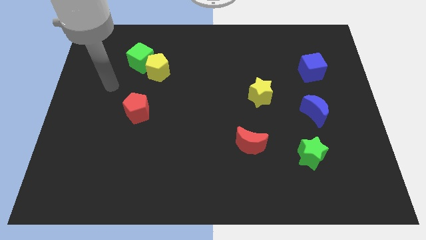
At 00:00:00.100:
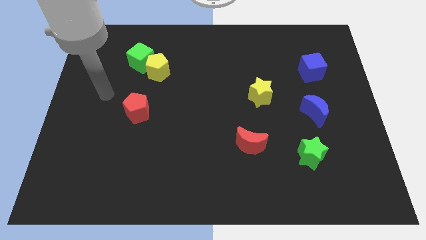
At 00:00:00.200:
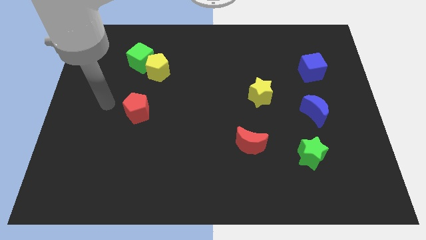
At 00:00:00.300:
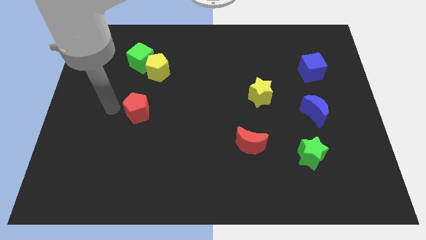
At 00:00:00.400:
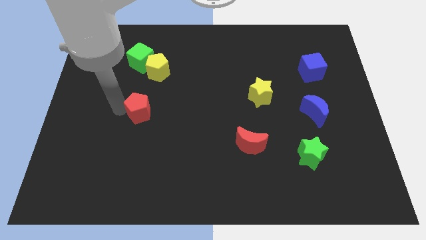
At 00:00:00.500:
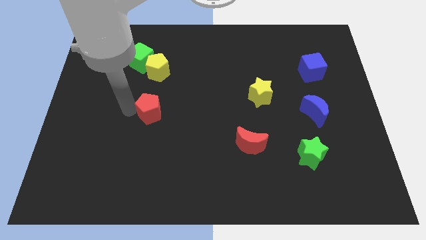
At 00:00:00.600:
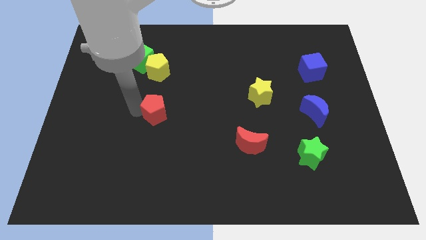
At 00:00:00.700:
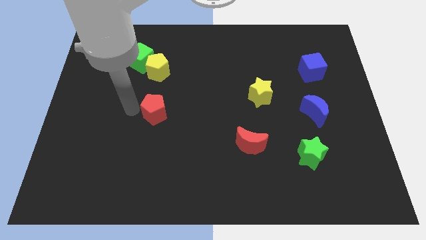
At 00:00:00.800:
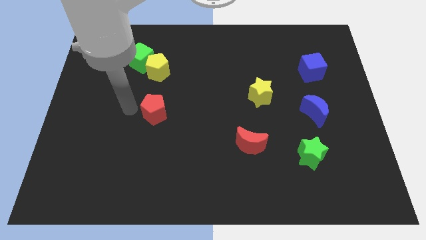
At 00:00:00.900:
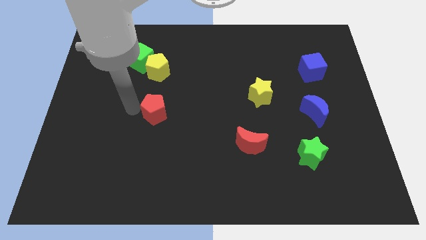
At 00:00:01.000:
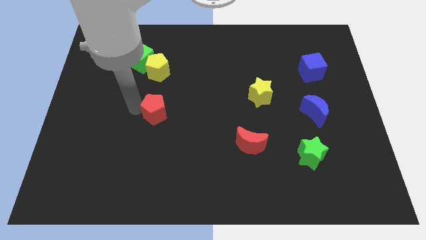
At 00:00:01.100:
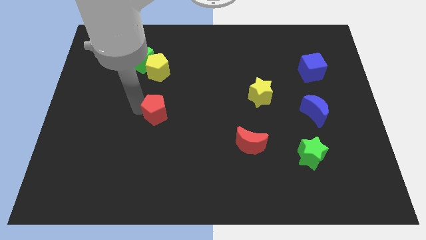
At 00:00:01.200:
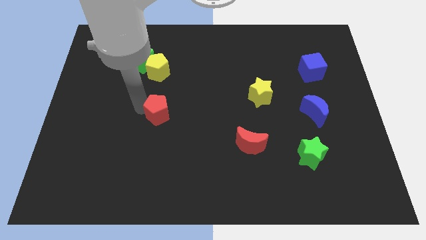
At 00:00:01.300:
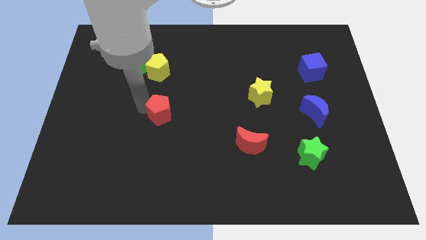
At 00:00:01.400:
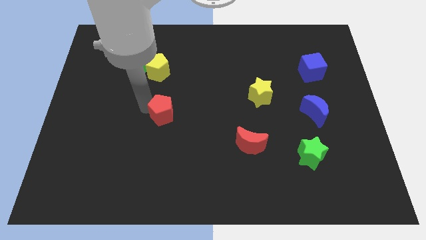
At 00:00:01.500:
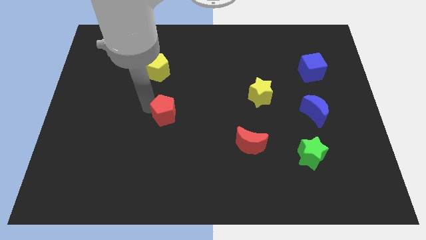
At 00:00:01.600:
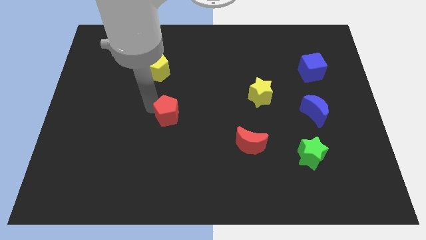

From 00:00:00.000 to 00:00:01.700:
slightly push the red pentagon to the right

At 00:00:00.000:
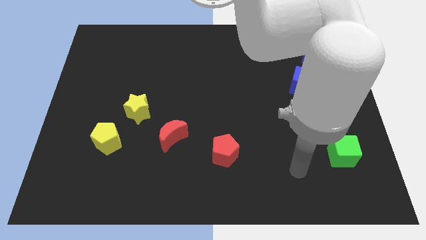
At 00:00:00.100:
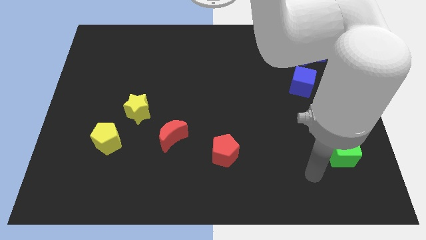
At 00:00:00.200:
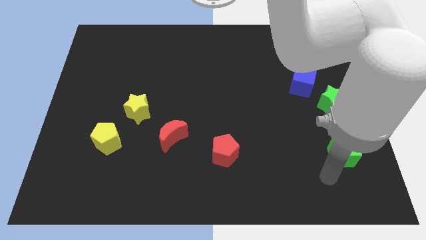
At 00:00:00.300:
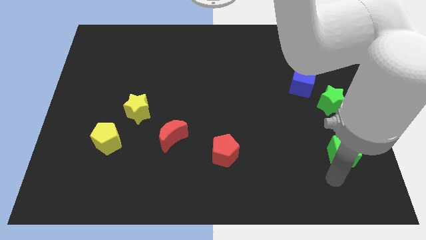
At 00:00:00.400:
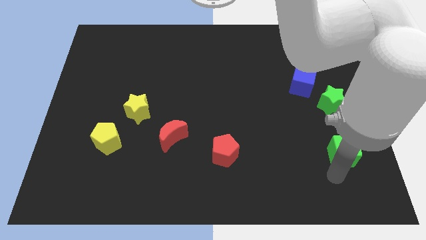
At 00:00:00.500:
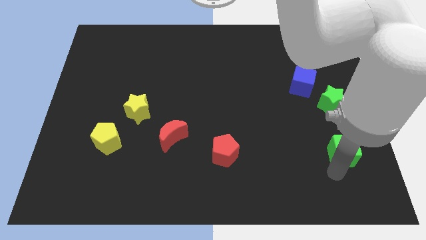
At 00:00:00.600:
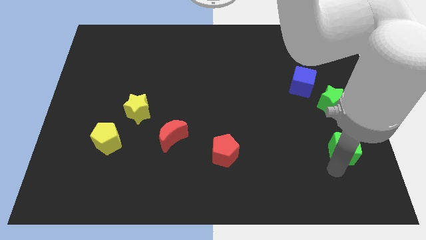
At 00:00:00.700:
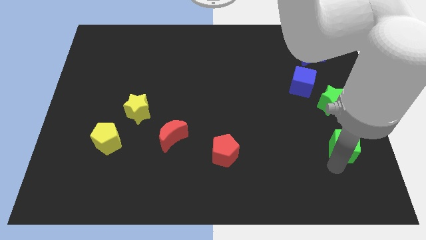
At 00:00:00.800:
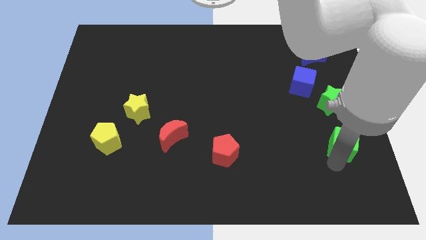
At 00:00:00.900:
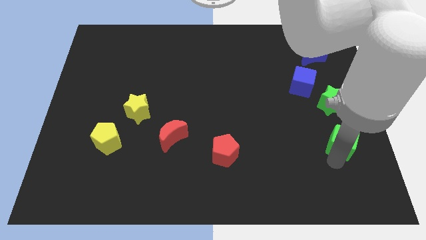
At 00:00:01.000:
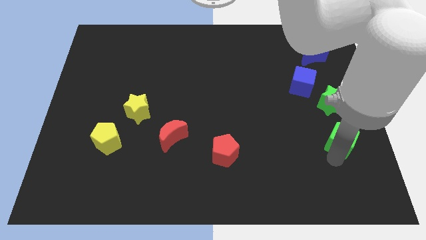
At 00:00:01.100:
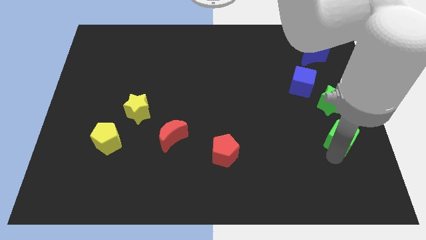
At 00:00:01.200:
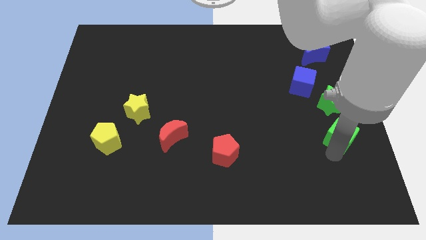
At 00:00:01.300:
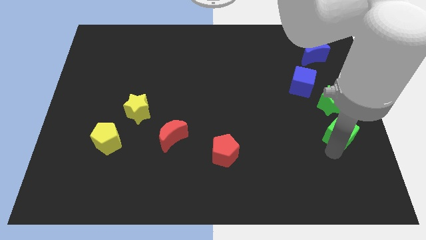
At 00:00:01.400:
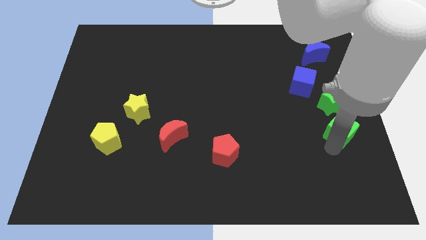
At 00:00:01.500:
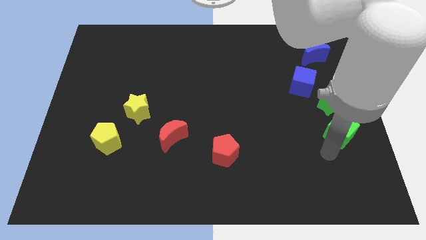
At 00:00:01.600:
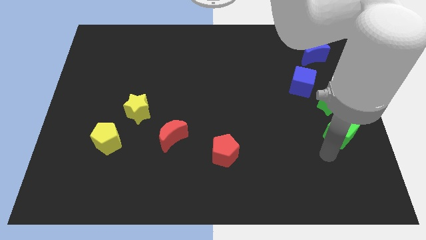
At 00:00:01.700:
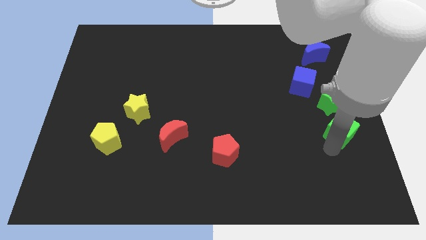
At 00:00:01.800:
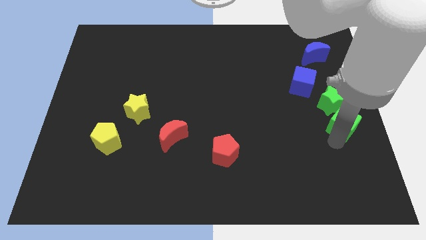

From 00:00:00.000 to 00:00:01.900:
move the green cube slightly upwards

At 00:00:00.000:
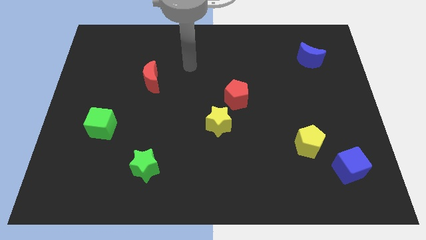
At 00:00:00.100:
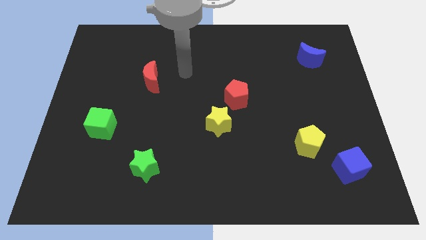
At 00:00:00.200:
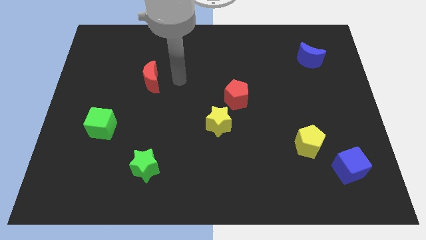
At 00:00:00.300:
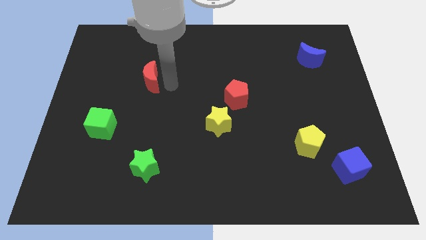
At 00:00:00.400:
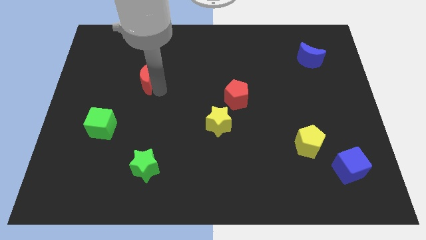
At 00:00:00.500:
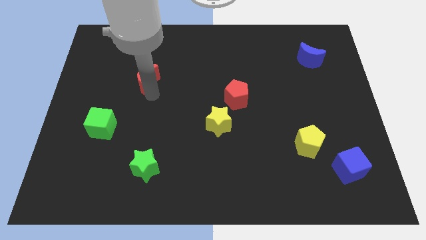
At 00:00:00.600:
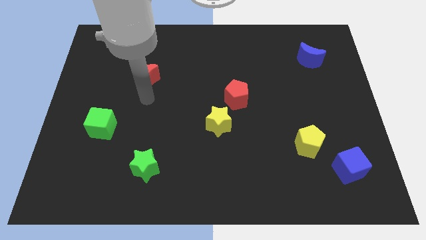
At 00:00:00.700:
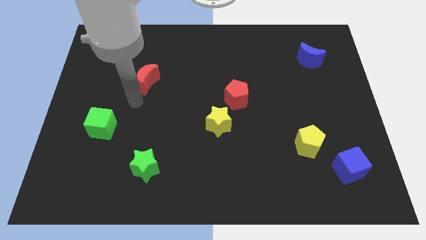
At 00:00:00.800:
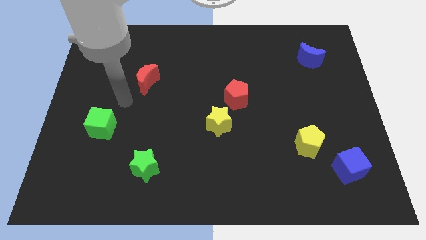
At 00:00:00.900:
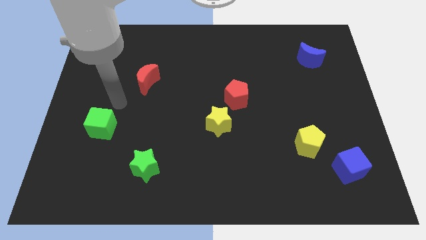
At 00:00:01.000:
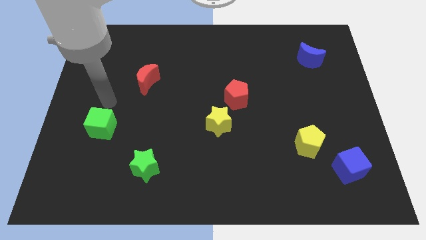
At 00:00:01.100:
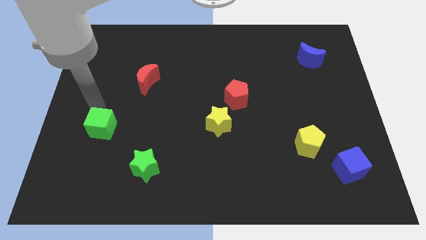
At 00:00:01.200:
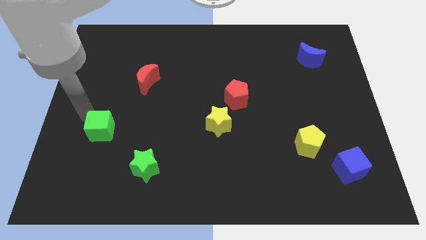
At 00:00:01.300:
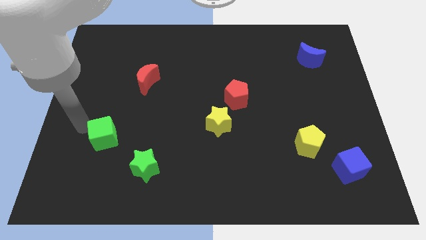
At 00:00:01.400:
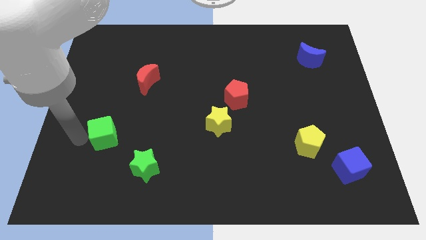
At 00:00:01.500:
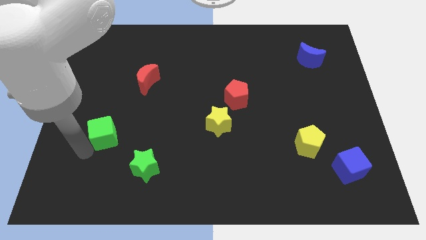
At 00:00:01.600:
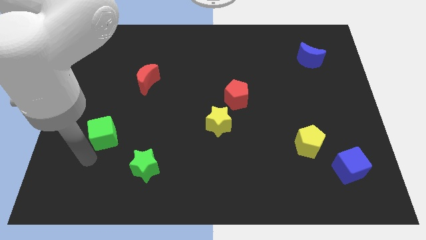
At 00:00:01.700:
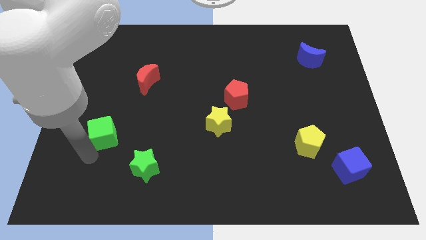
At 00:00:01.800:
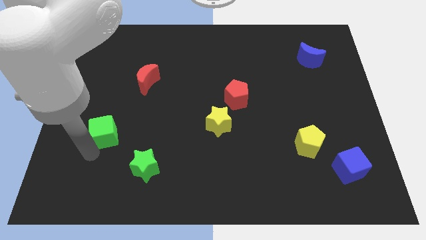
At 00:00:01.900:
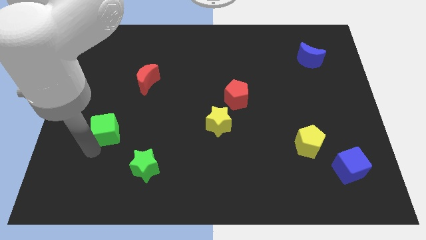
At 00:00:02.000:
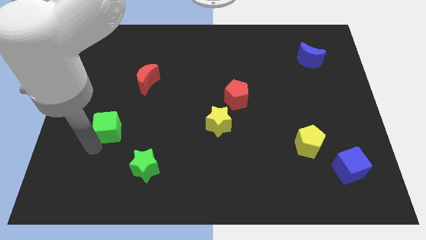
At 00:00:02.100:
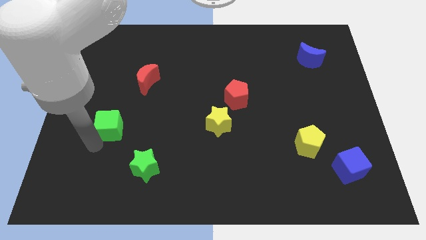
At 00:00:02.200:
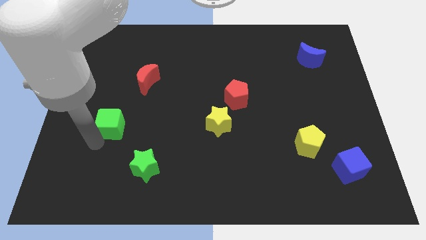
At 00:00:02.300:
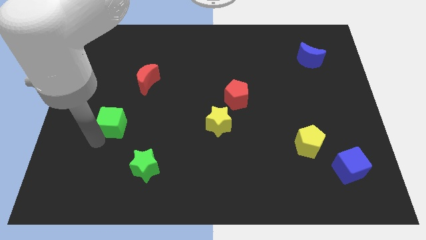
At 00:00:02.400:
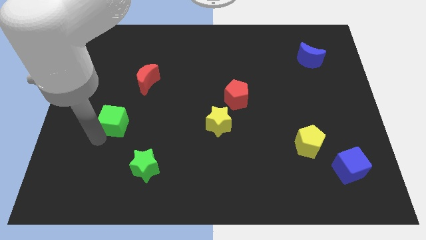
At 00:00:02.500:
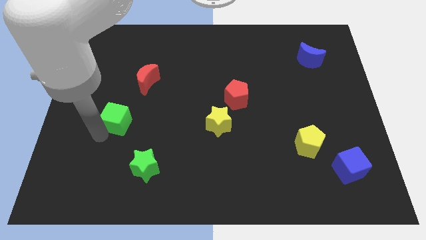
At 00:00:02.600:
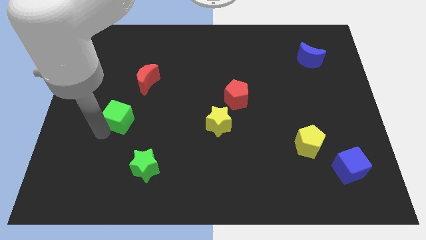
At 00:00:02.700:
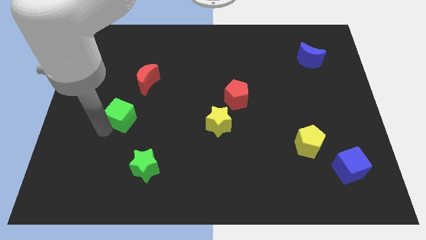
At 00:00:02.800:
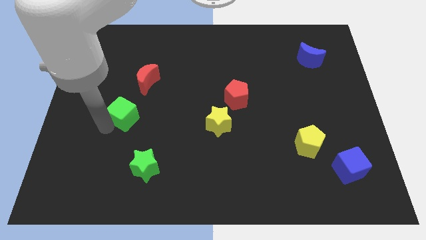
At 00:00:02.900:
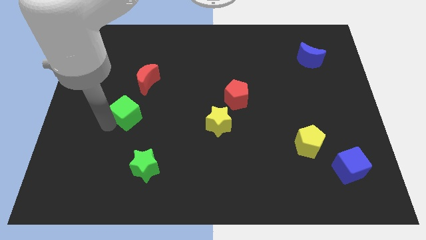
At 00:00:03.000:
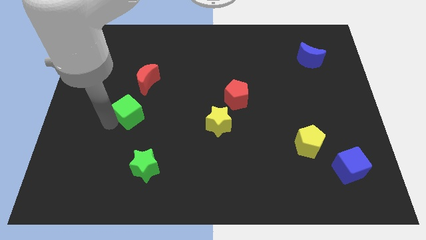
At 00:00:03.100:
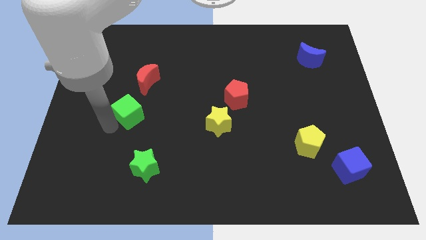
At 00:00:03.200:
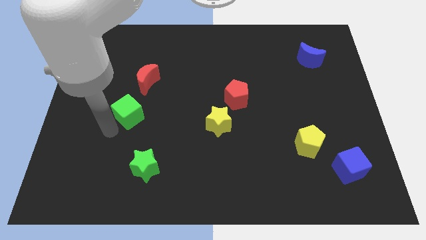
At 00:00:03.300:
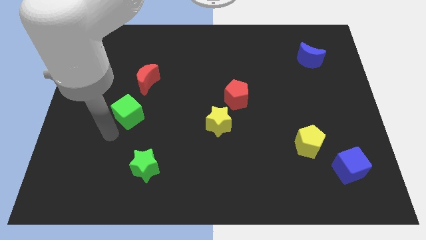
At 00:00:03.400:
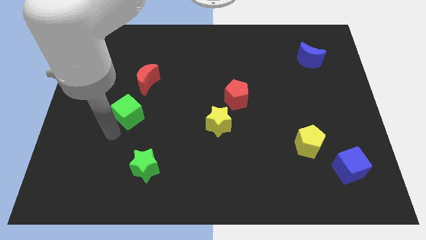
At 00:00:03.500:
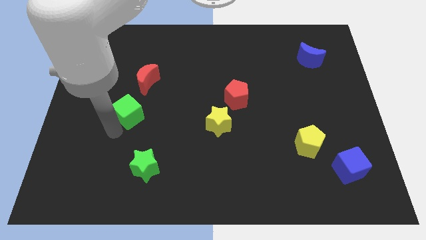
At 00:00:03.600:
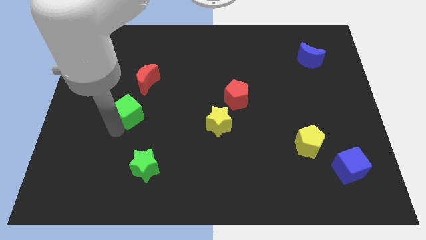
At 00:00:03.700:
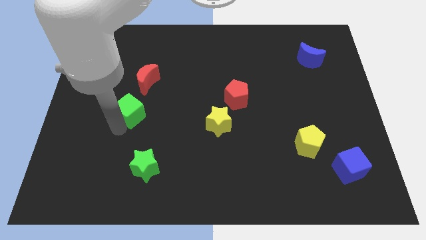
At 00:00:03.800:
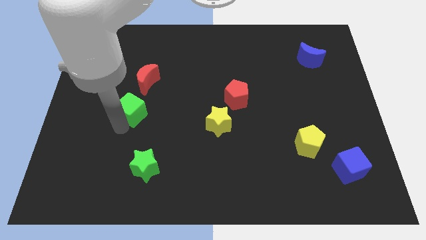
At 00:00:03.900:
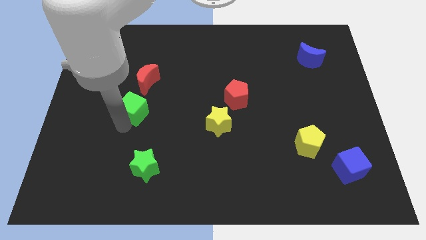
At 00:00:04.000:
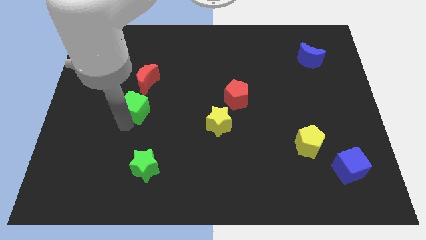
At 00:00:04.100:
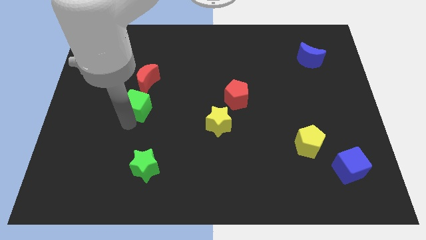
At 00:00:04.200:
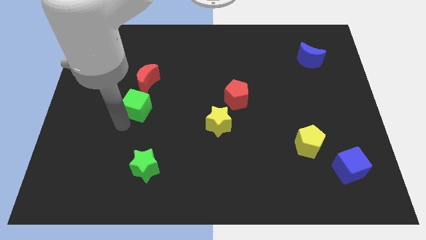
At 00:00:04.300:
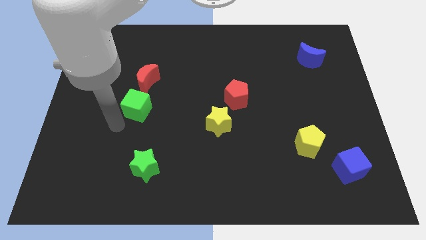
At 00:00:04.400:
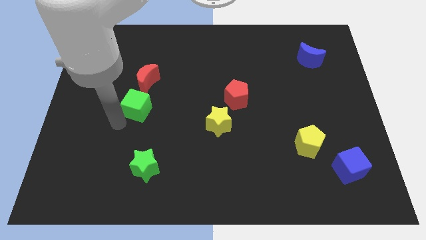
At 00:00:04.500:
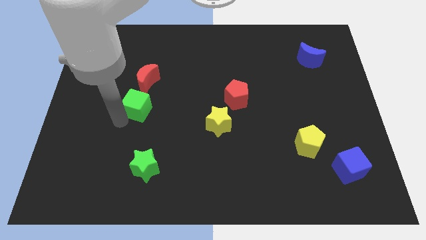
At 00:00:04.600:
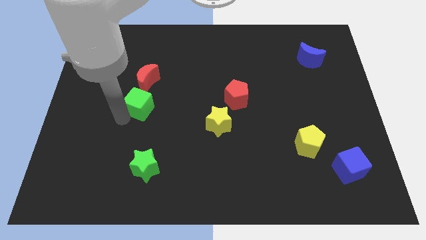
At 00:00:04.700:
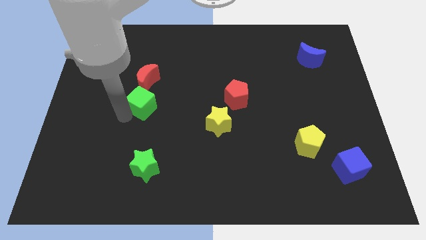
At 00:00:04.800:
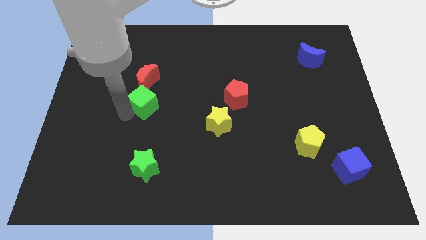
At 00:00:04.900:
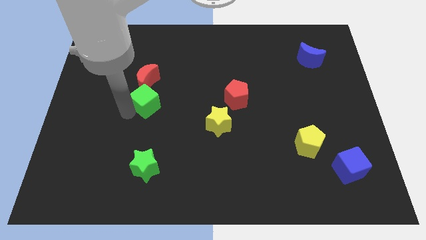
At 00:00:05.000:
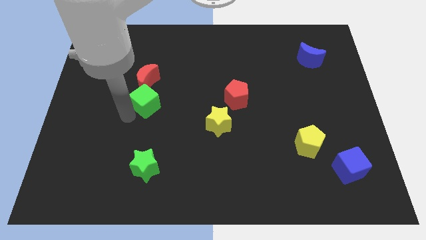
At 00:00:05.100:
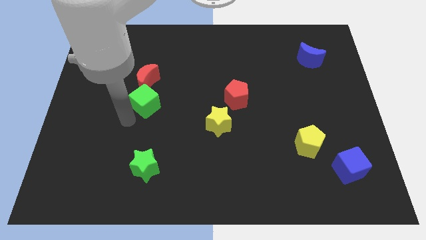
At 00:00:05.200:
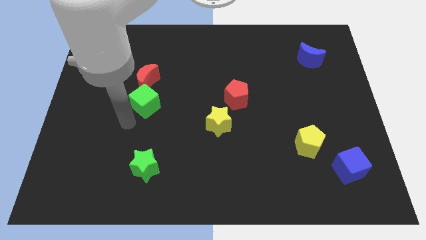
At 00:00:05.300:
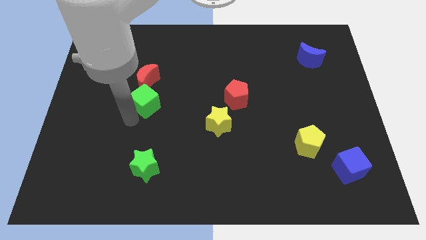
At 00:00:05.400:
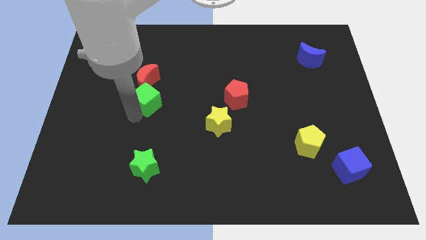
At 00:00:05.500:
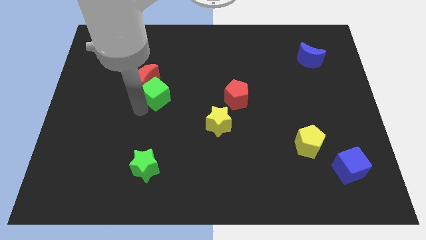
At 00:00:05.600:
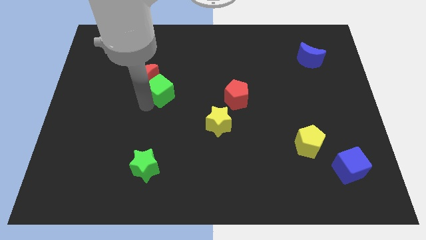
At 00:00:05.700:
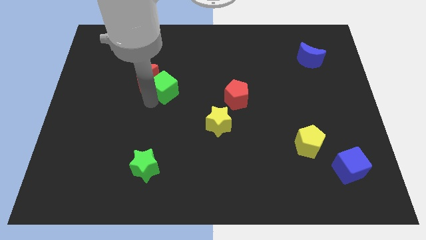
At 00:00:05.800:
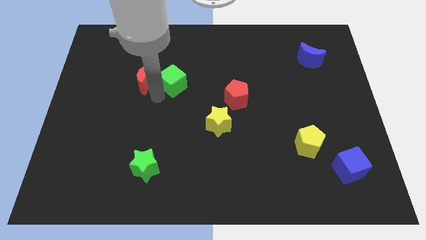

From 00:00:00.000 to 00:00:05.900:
slide the green cube up and to the right
